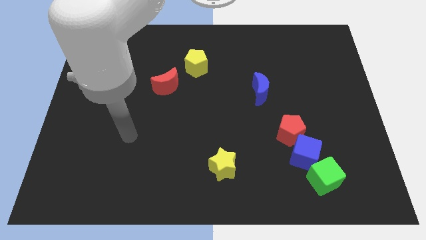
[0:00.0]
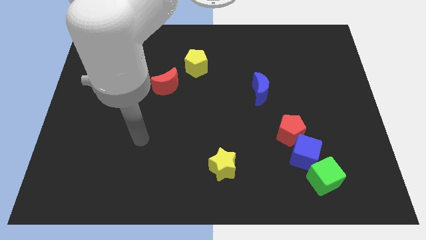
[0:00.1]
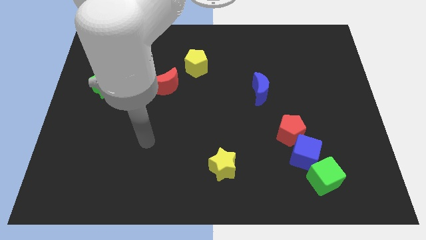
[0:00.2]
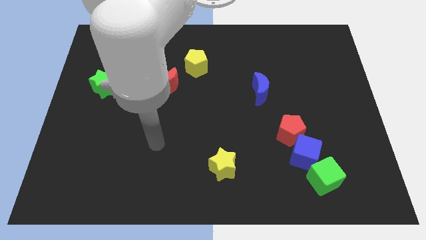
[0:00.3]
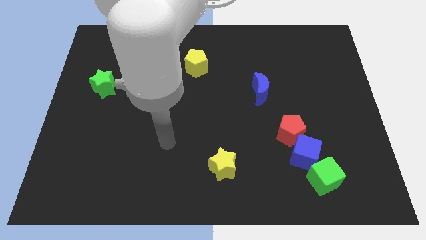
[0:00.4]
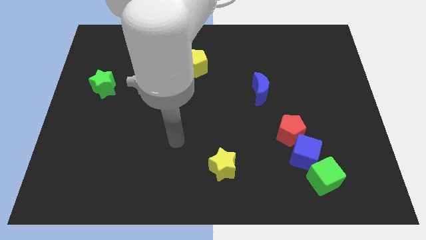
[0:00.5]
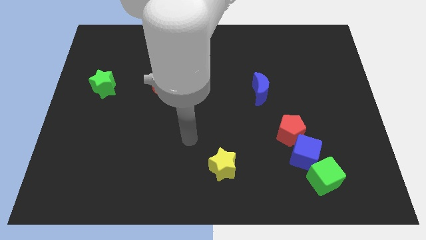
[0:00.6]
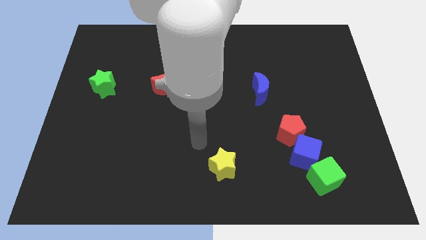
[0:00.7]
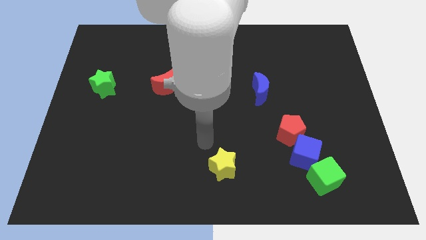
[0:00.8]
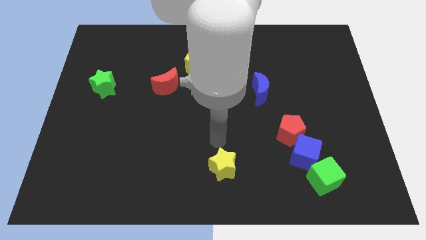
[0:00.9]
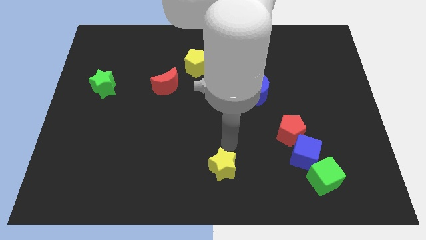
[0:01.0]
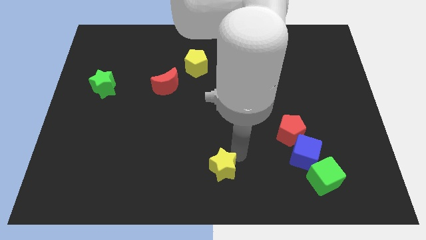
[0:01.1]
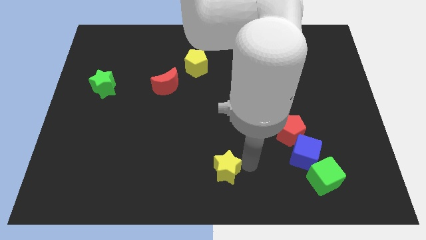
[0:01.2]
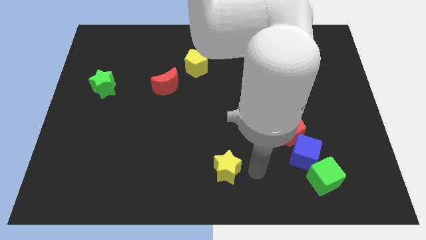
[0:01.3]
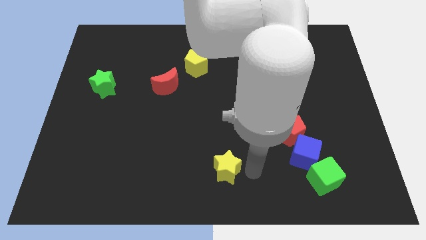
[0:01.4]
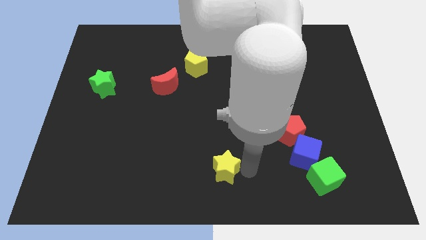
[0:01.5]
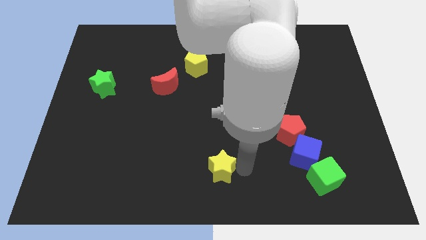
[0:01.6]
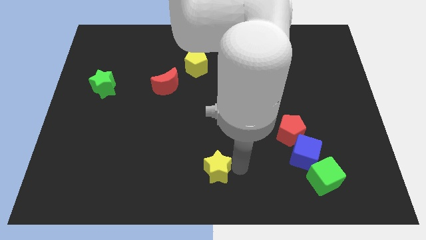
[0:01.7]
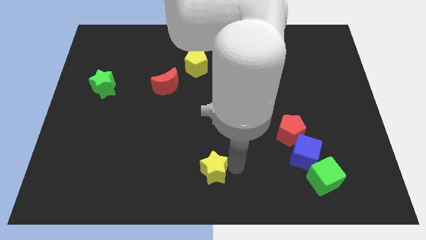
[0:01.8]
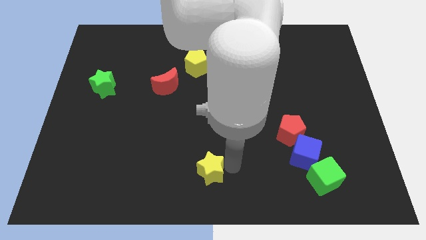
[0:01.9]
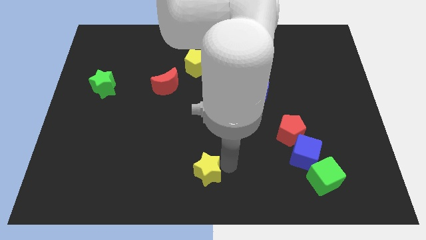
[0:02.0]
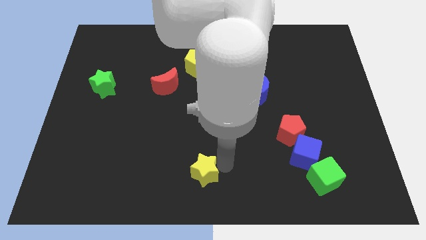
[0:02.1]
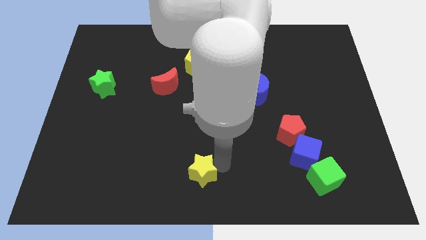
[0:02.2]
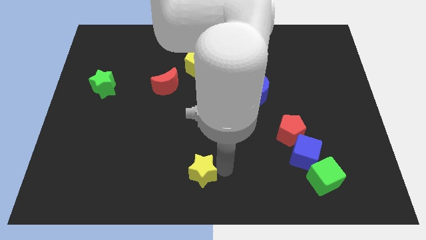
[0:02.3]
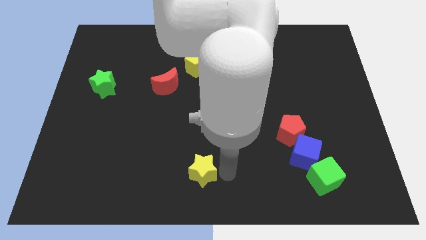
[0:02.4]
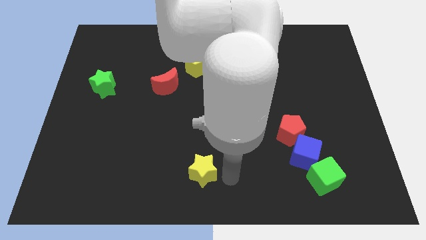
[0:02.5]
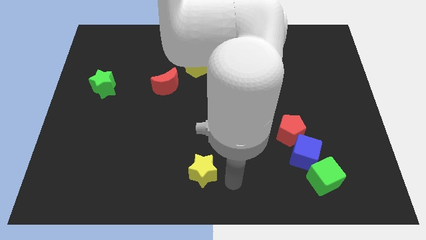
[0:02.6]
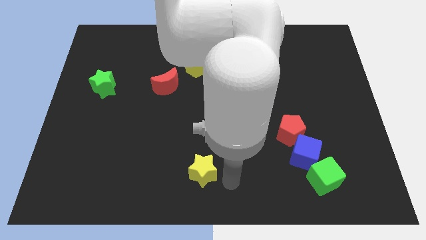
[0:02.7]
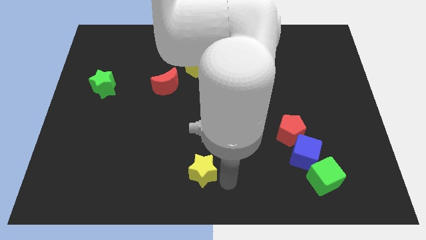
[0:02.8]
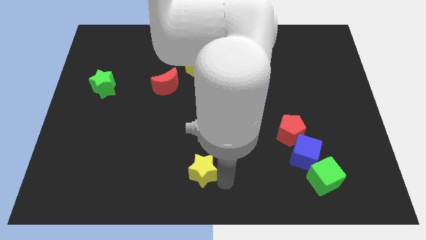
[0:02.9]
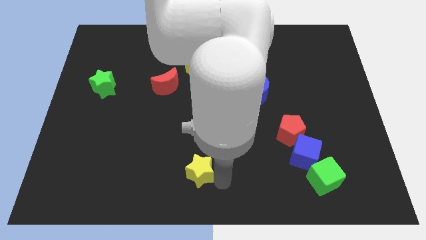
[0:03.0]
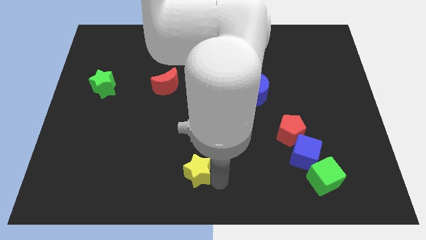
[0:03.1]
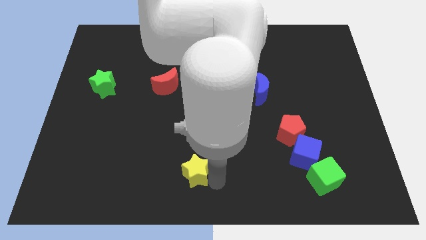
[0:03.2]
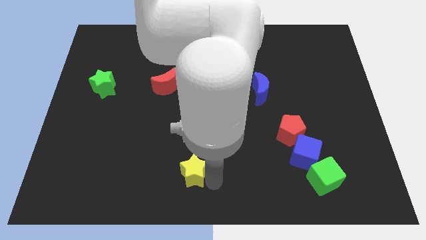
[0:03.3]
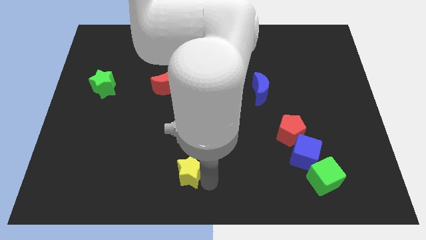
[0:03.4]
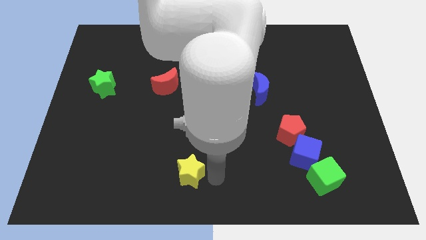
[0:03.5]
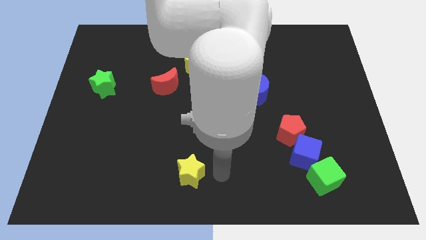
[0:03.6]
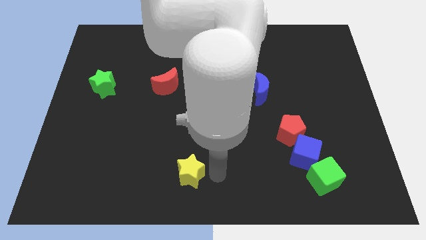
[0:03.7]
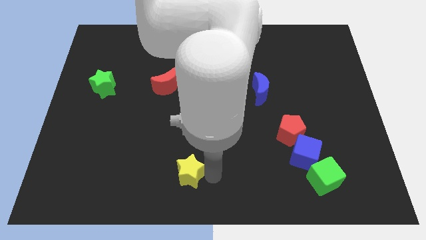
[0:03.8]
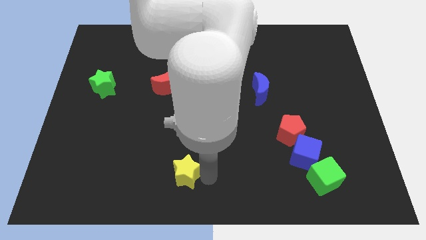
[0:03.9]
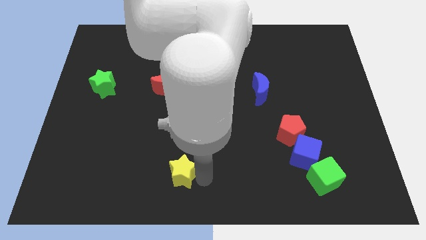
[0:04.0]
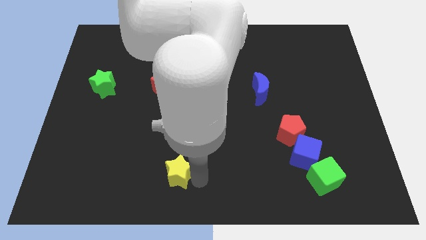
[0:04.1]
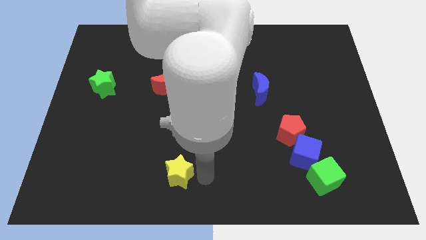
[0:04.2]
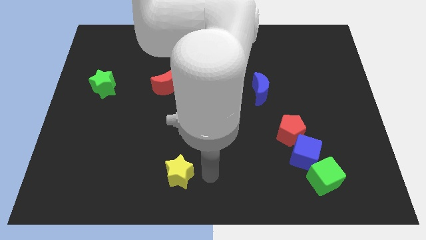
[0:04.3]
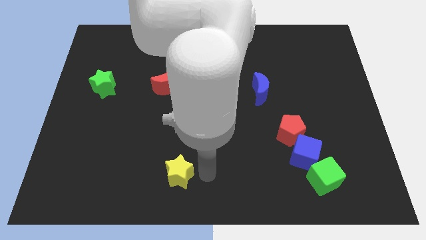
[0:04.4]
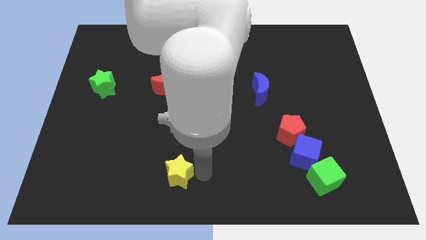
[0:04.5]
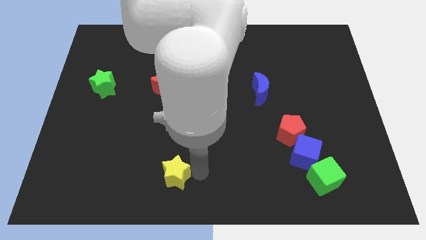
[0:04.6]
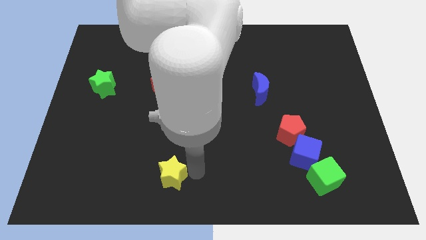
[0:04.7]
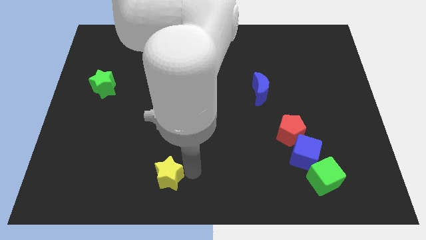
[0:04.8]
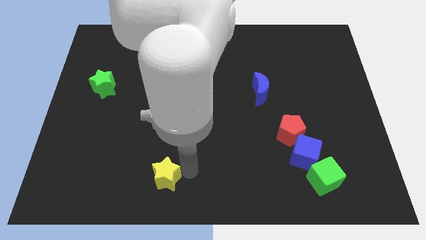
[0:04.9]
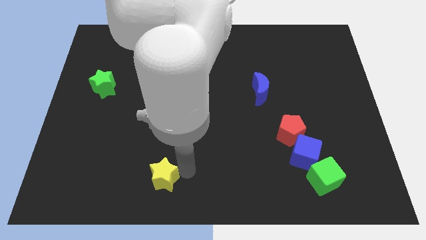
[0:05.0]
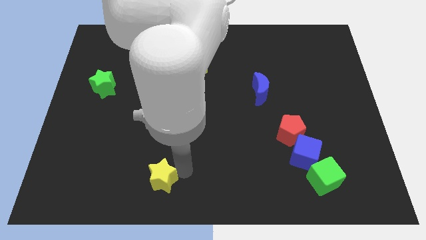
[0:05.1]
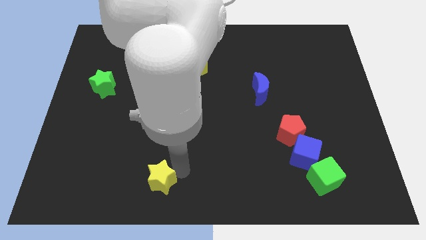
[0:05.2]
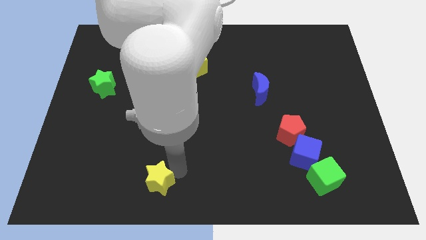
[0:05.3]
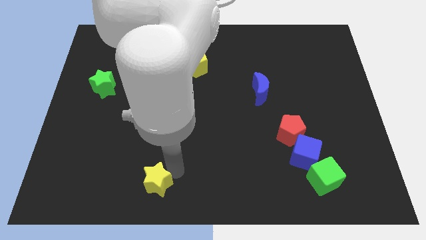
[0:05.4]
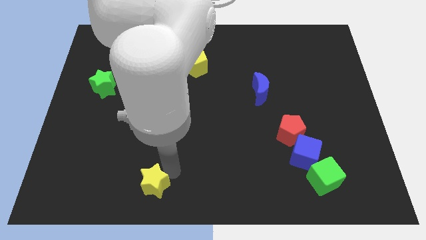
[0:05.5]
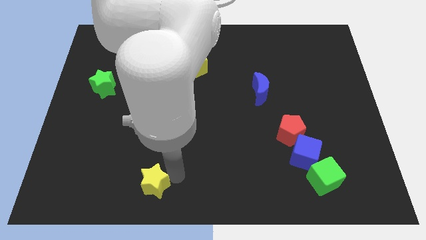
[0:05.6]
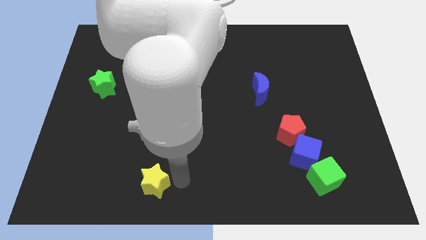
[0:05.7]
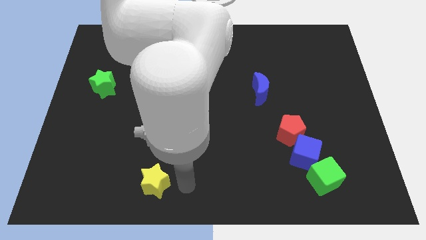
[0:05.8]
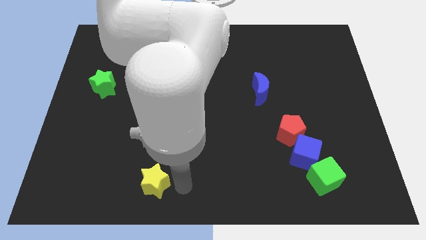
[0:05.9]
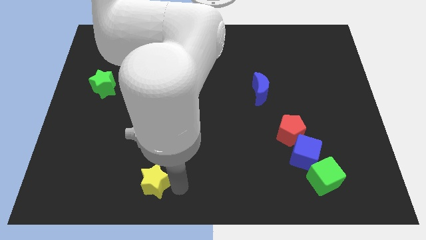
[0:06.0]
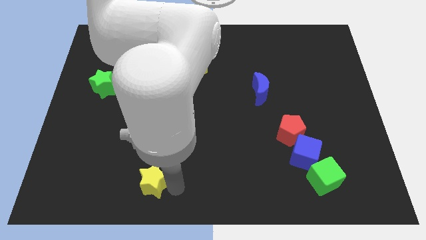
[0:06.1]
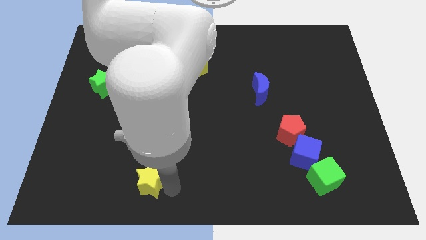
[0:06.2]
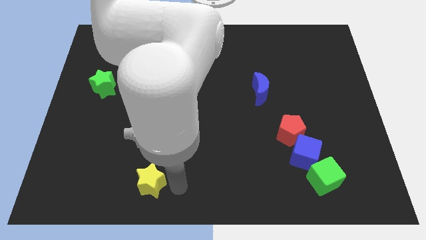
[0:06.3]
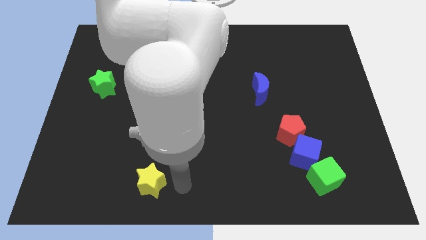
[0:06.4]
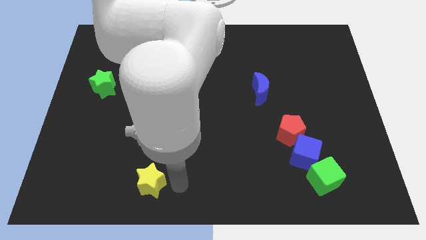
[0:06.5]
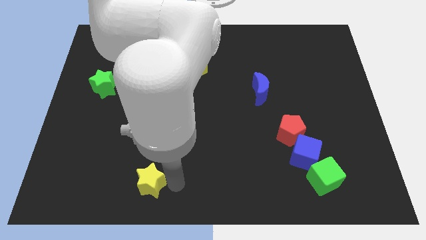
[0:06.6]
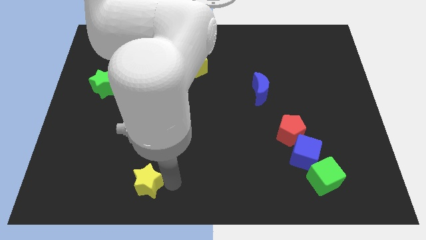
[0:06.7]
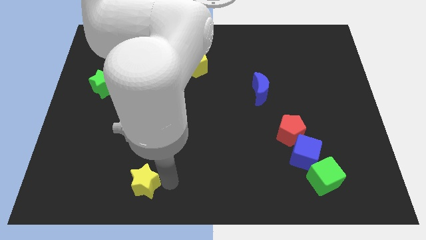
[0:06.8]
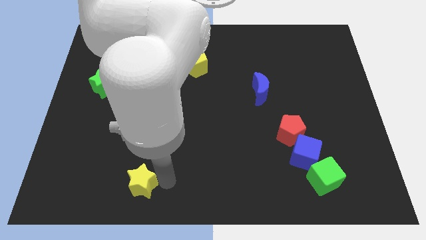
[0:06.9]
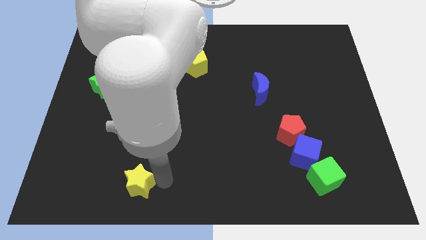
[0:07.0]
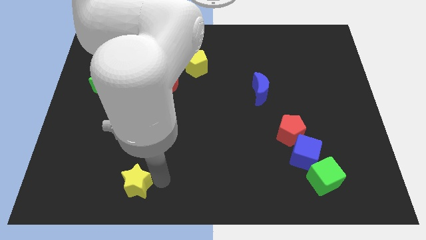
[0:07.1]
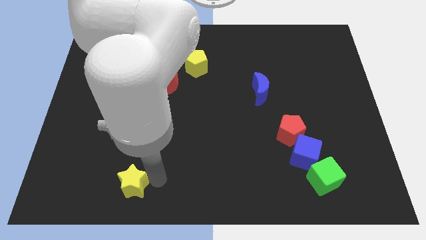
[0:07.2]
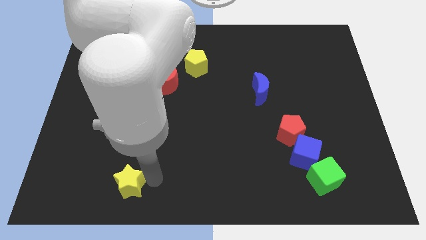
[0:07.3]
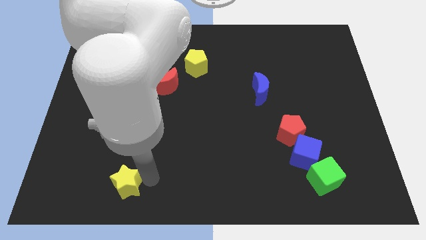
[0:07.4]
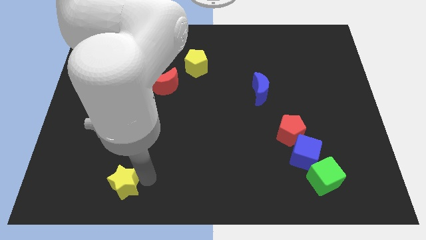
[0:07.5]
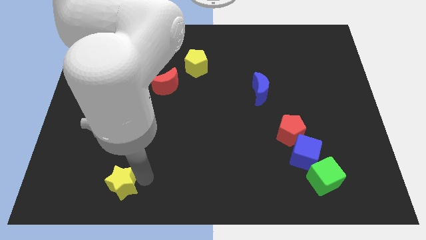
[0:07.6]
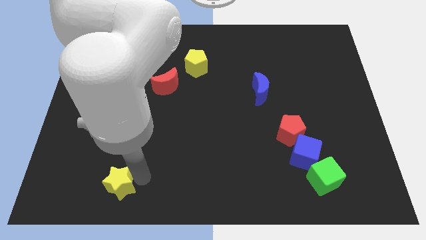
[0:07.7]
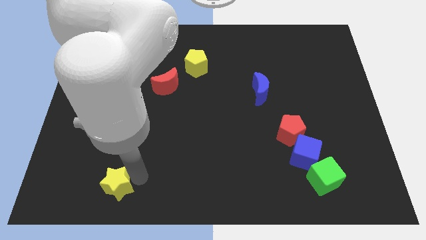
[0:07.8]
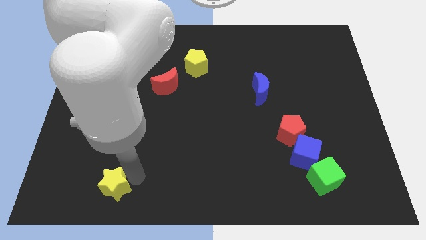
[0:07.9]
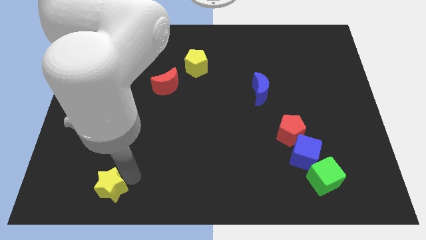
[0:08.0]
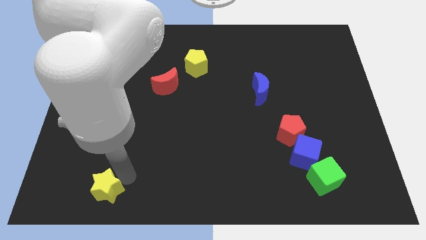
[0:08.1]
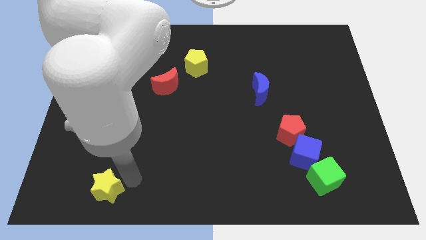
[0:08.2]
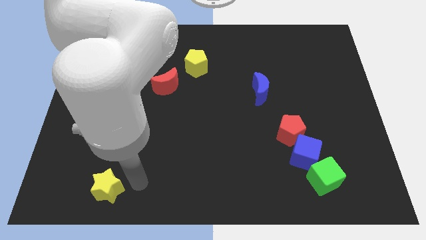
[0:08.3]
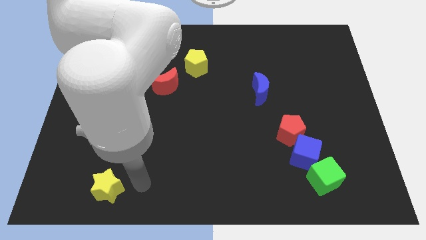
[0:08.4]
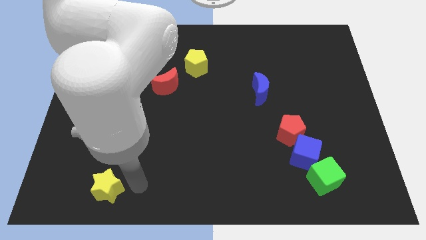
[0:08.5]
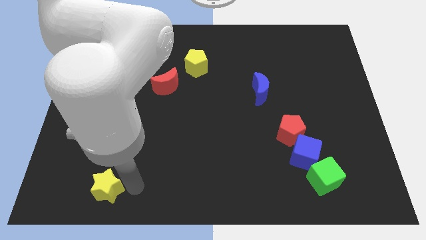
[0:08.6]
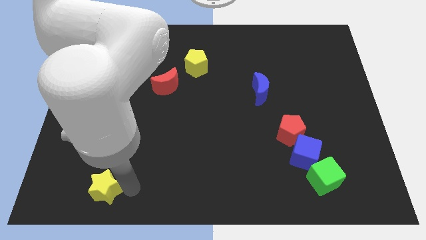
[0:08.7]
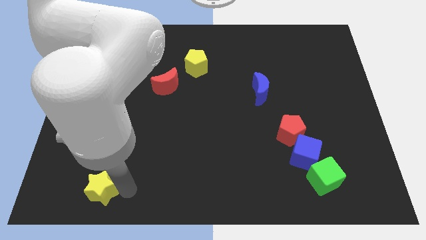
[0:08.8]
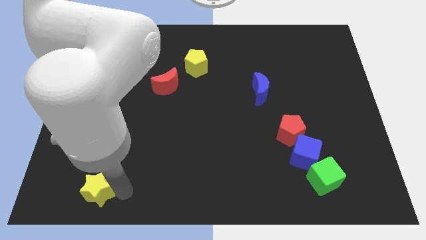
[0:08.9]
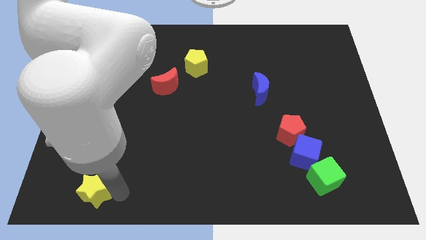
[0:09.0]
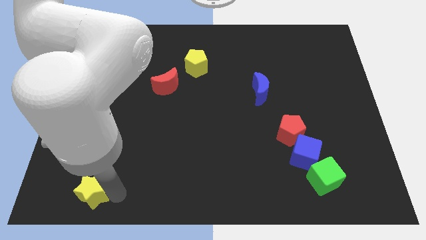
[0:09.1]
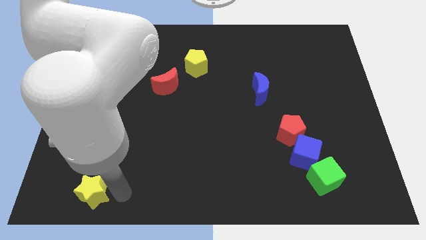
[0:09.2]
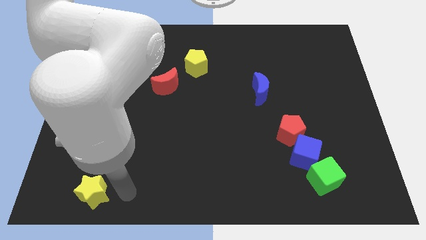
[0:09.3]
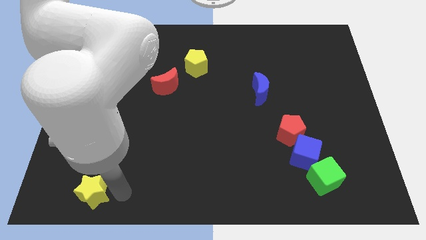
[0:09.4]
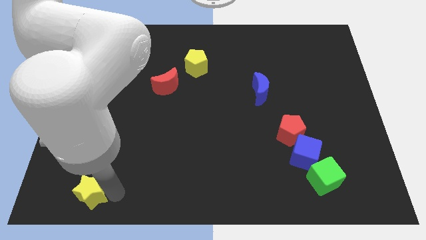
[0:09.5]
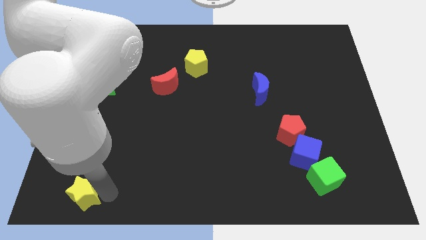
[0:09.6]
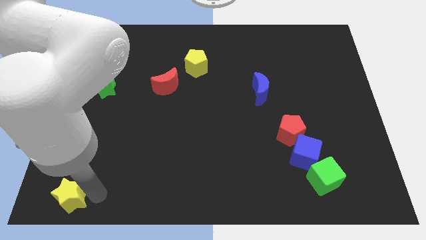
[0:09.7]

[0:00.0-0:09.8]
slide the yellow star to the bottom left corner
